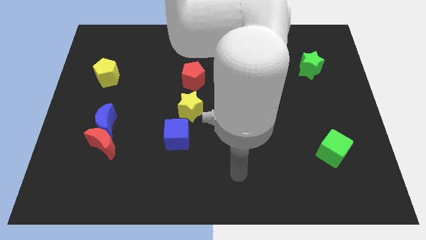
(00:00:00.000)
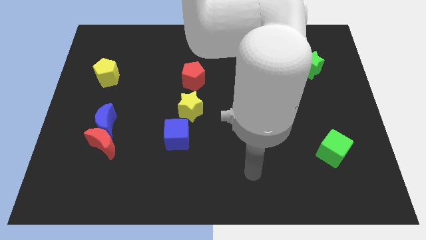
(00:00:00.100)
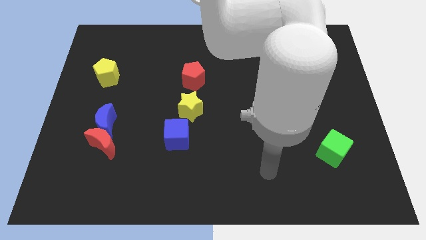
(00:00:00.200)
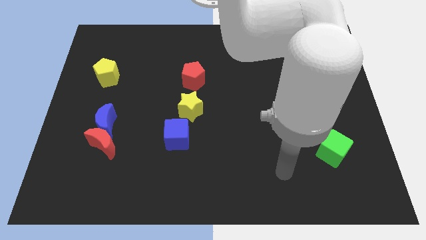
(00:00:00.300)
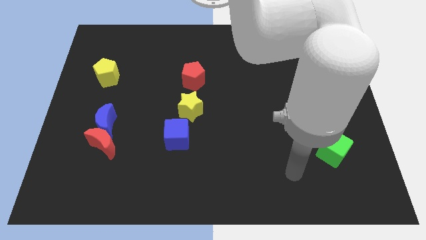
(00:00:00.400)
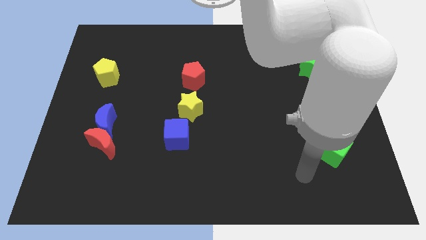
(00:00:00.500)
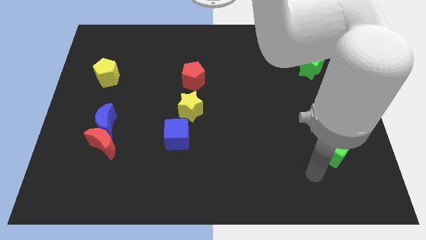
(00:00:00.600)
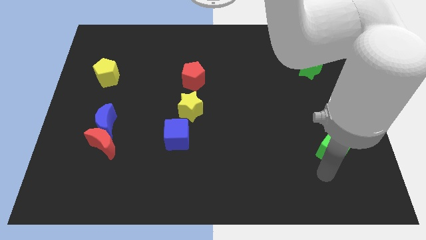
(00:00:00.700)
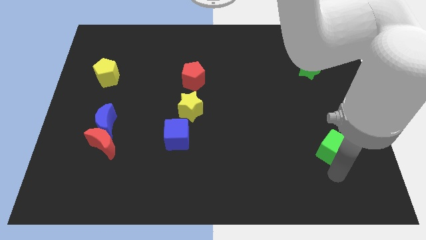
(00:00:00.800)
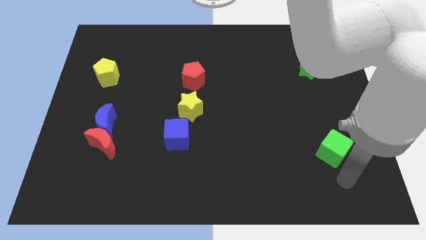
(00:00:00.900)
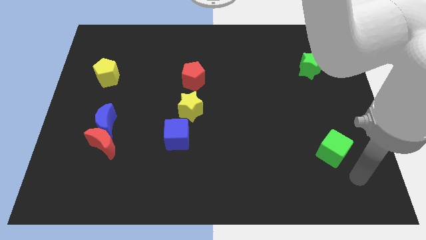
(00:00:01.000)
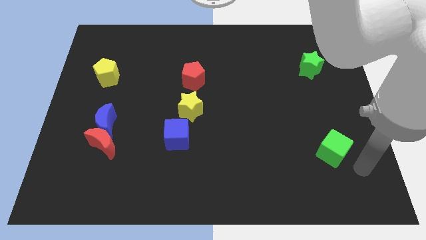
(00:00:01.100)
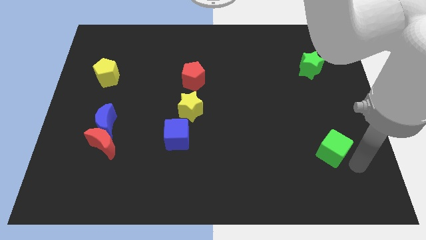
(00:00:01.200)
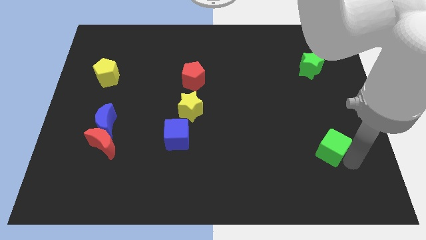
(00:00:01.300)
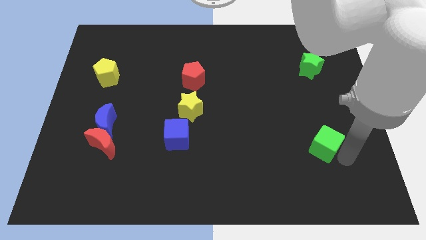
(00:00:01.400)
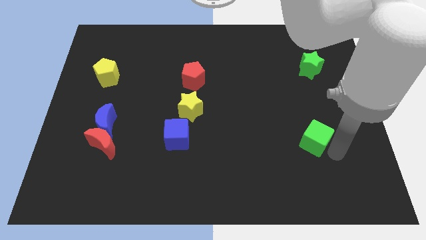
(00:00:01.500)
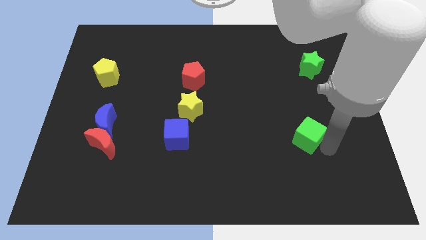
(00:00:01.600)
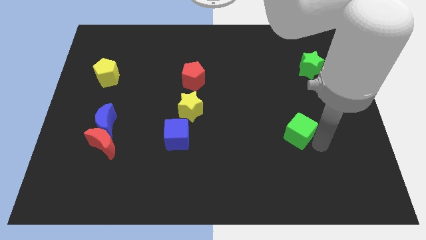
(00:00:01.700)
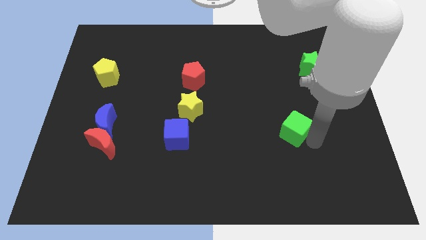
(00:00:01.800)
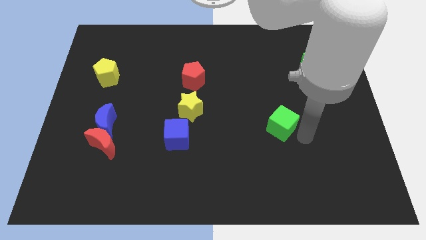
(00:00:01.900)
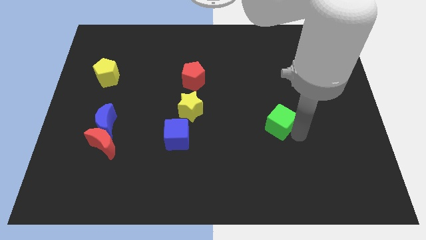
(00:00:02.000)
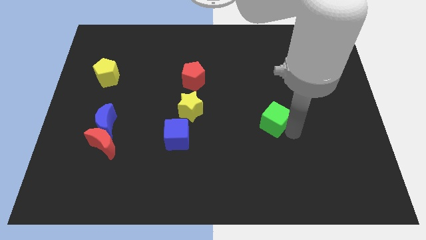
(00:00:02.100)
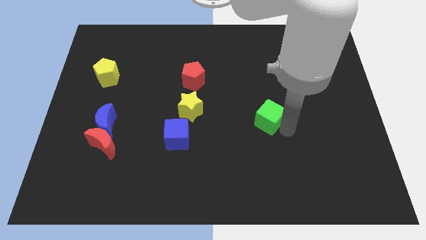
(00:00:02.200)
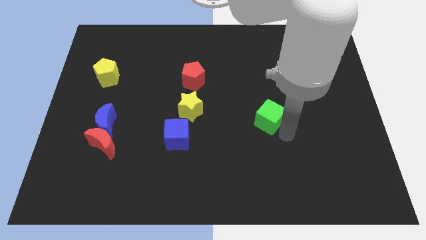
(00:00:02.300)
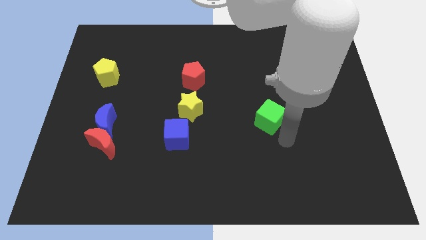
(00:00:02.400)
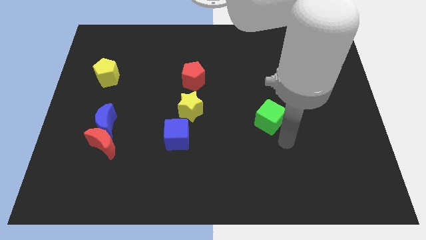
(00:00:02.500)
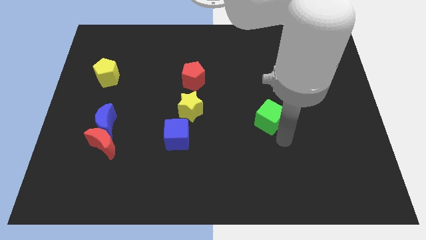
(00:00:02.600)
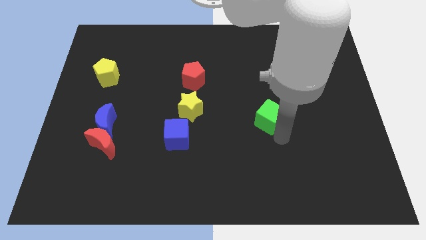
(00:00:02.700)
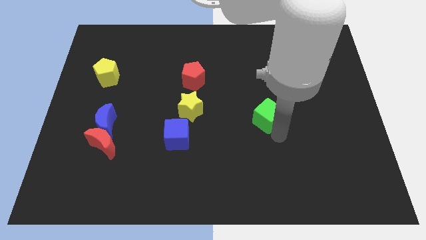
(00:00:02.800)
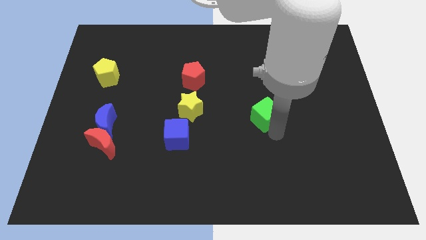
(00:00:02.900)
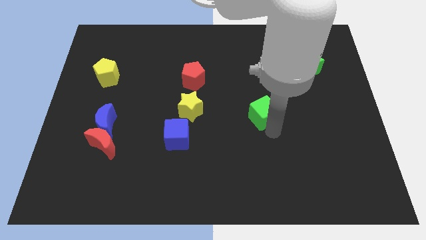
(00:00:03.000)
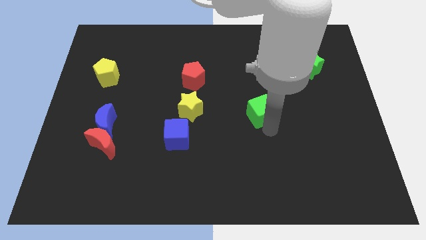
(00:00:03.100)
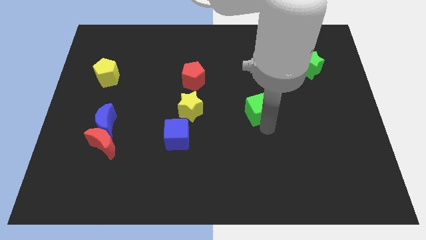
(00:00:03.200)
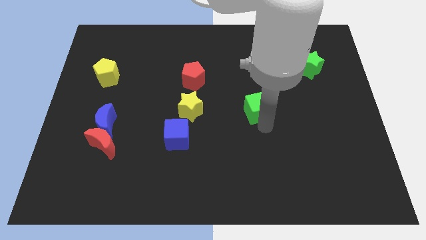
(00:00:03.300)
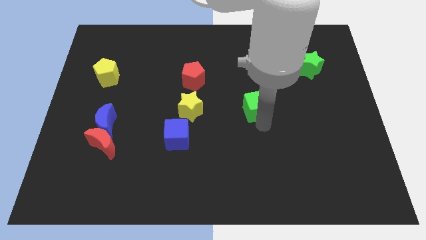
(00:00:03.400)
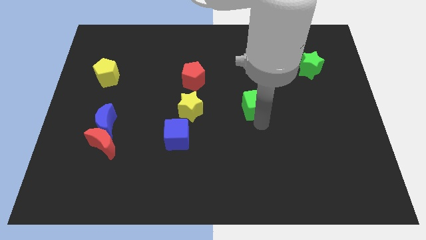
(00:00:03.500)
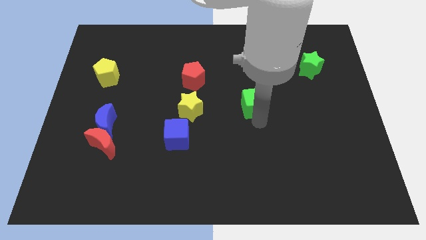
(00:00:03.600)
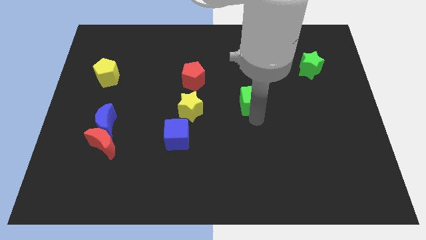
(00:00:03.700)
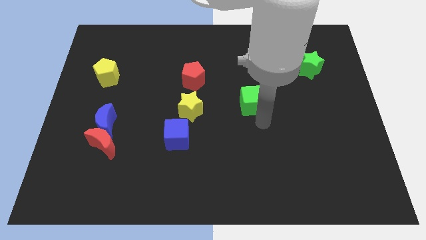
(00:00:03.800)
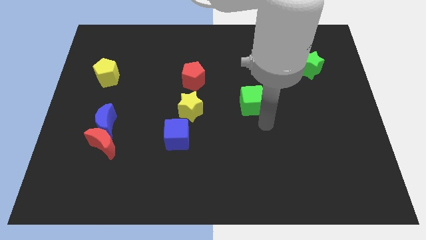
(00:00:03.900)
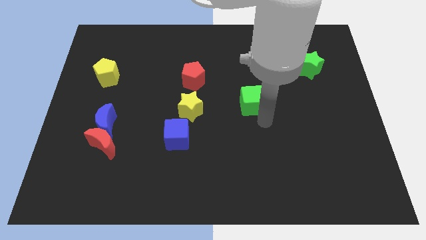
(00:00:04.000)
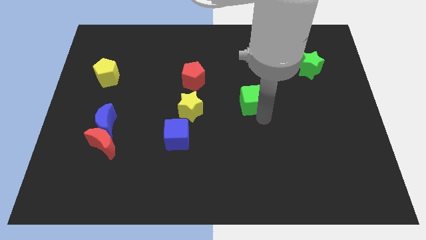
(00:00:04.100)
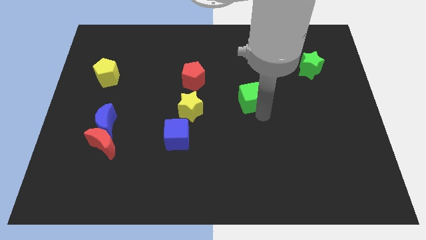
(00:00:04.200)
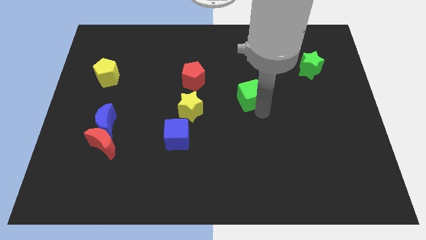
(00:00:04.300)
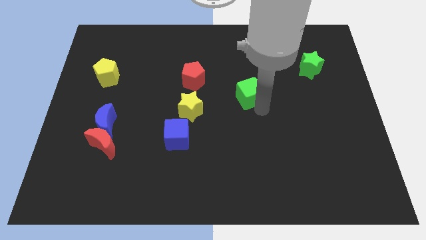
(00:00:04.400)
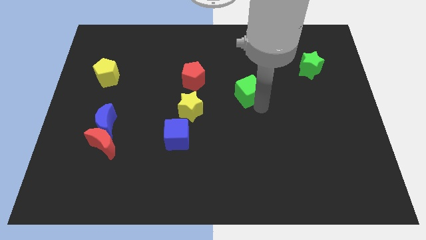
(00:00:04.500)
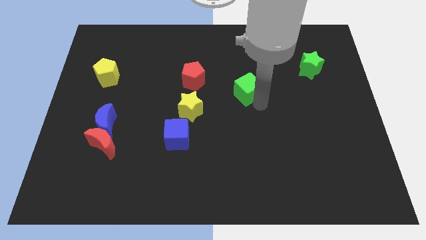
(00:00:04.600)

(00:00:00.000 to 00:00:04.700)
slide the green cube to the right side of the red pentagon

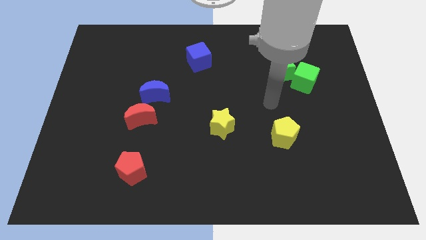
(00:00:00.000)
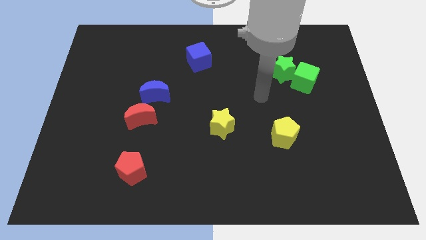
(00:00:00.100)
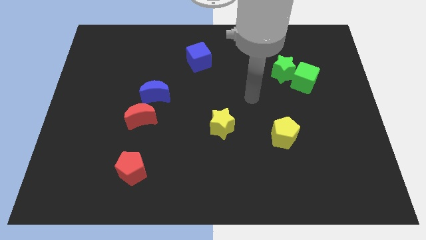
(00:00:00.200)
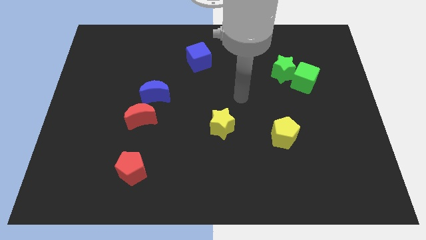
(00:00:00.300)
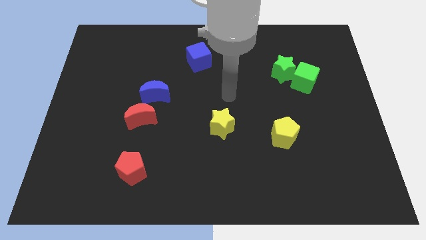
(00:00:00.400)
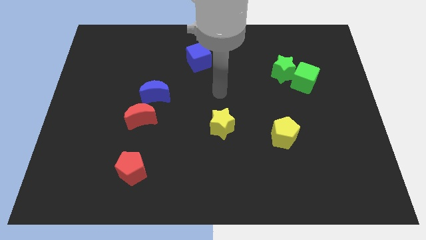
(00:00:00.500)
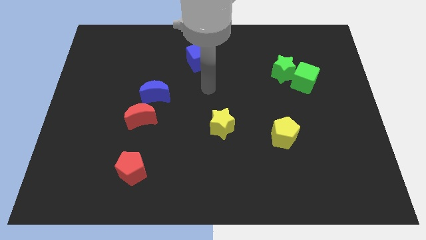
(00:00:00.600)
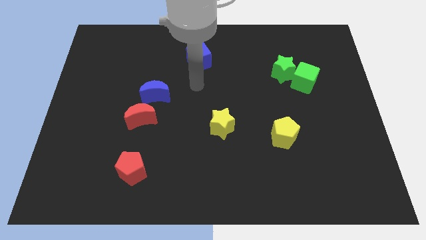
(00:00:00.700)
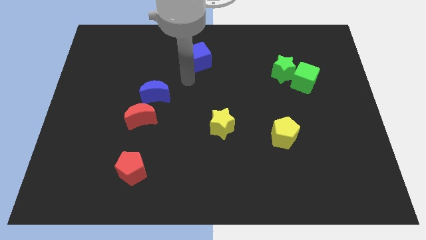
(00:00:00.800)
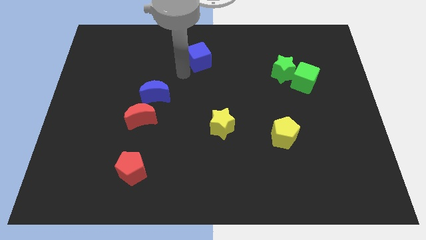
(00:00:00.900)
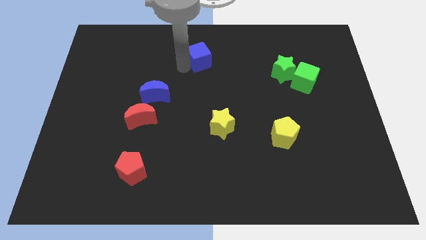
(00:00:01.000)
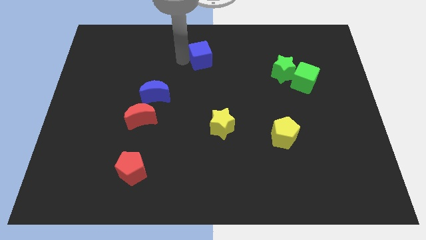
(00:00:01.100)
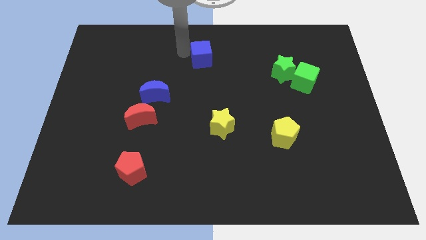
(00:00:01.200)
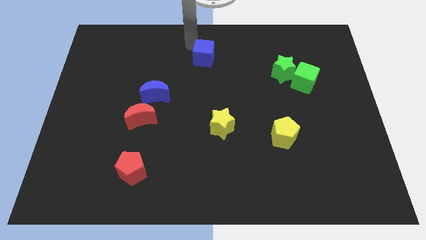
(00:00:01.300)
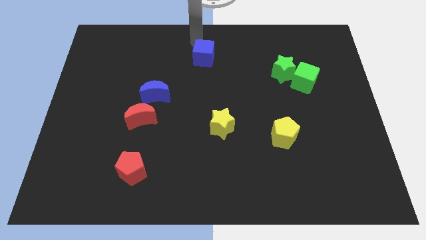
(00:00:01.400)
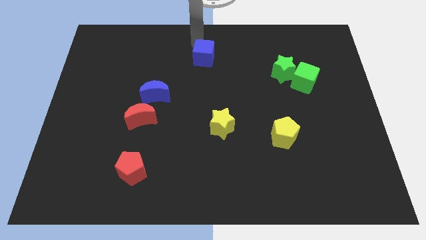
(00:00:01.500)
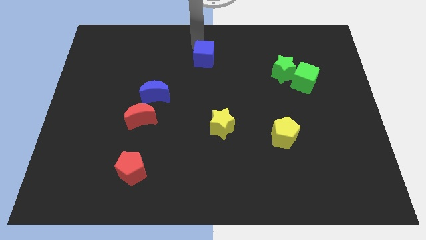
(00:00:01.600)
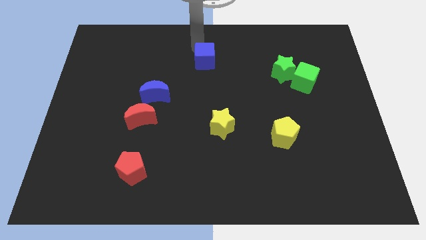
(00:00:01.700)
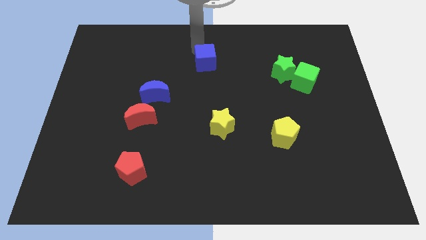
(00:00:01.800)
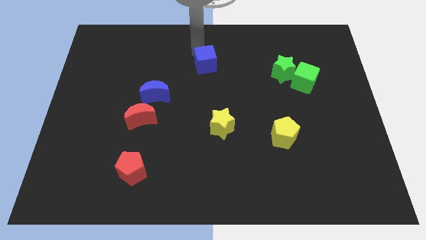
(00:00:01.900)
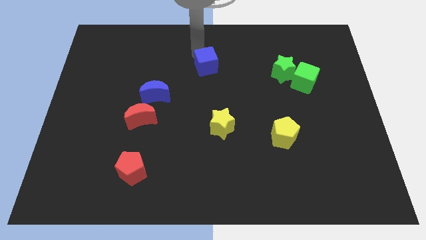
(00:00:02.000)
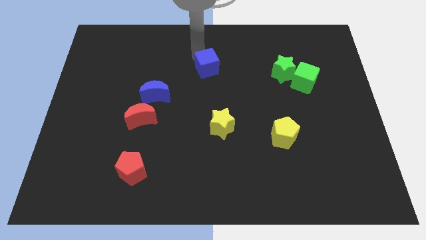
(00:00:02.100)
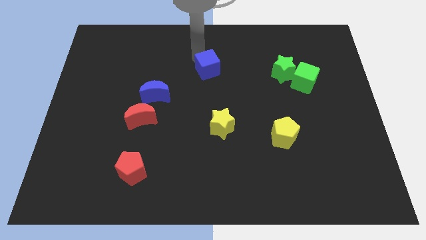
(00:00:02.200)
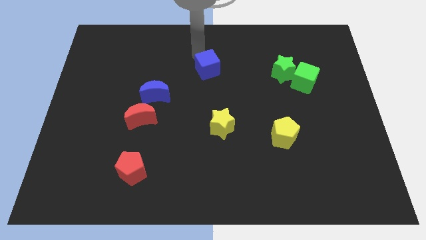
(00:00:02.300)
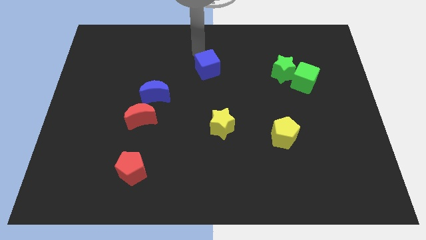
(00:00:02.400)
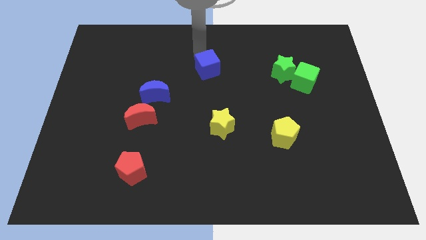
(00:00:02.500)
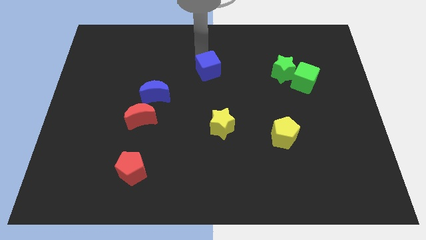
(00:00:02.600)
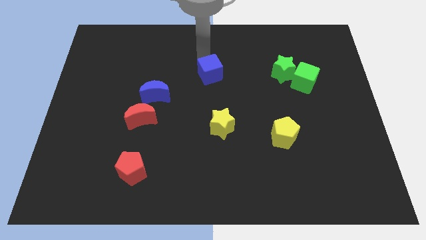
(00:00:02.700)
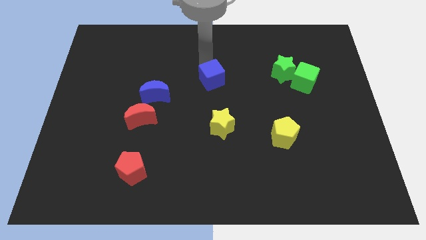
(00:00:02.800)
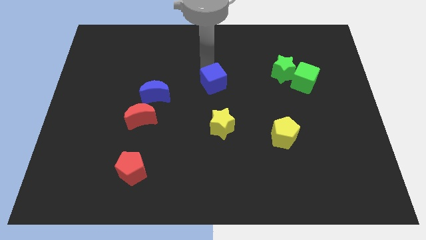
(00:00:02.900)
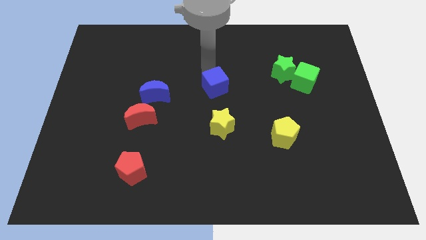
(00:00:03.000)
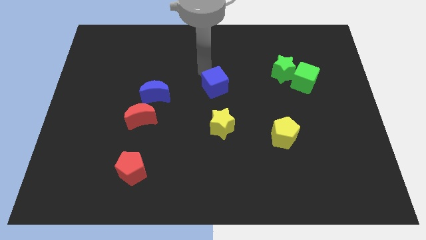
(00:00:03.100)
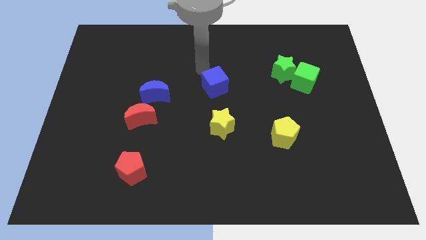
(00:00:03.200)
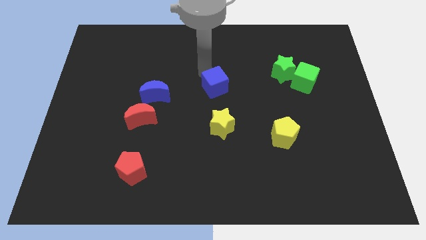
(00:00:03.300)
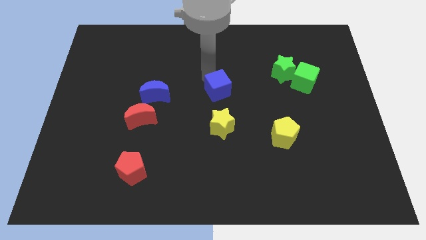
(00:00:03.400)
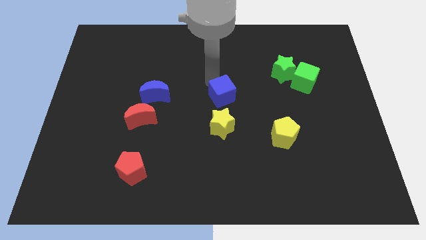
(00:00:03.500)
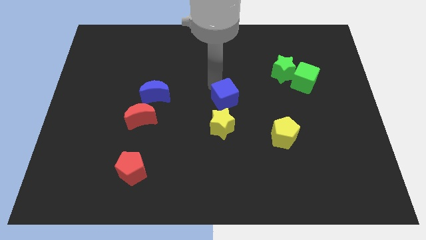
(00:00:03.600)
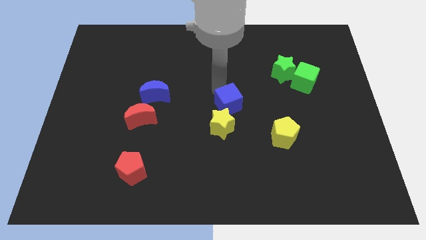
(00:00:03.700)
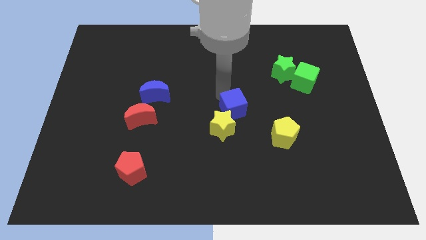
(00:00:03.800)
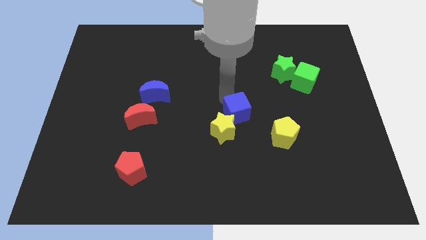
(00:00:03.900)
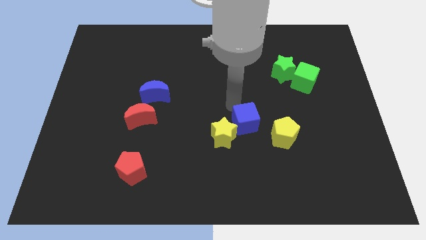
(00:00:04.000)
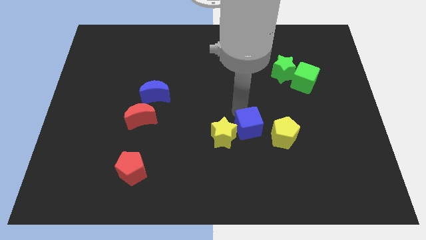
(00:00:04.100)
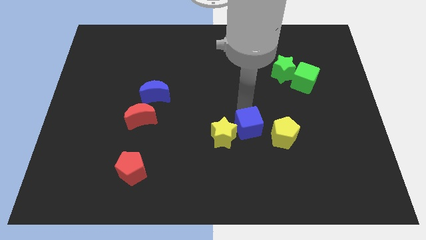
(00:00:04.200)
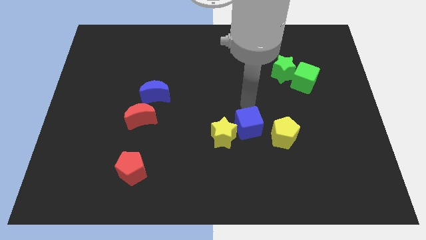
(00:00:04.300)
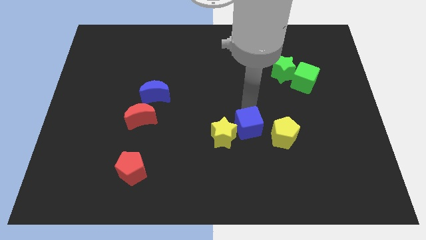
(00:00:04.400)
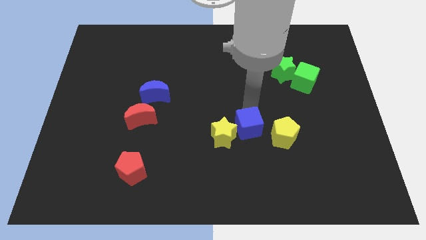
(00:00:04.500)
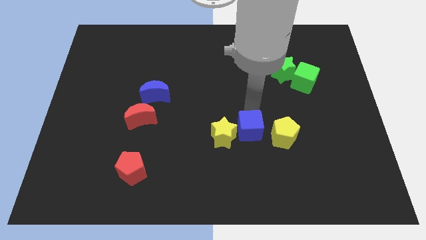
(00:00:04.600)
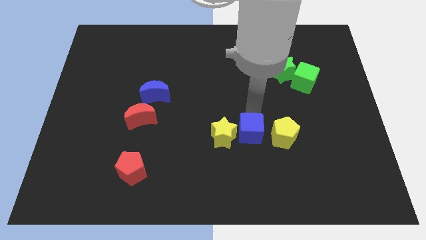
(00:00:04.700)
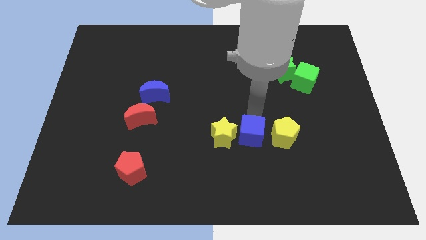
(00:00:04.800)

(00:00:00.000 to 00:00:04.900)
slide the blue cube to the bottom right side of the yellow star
